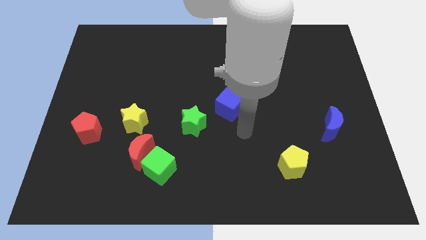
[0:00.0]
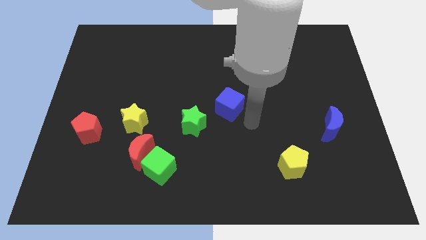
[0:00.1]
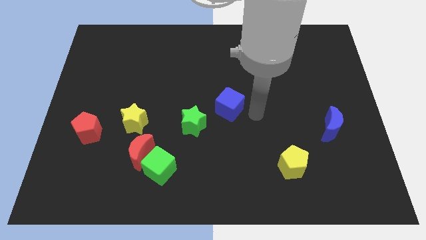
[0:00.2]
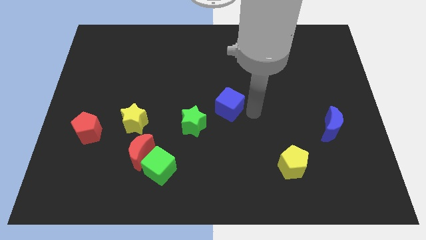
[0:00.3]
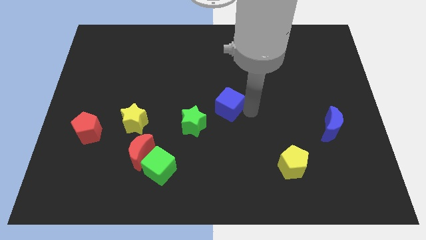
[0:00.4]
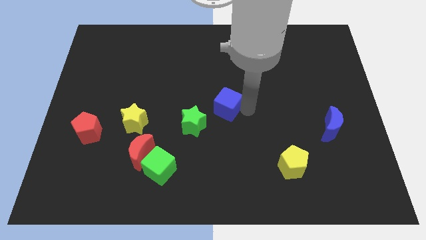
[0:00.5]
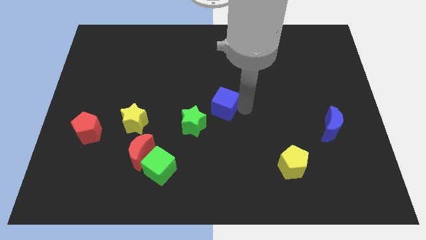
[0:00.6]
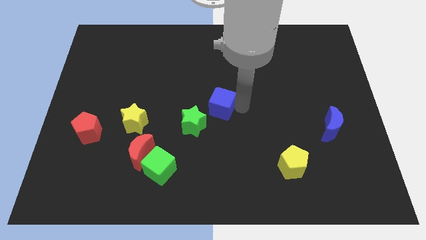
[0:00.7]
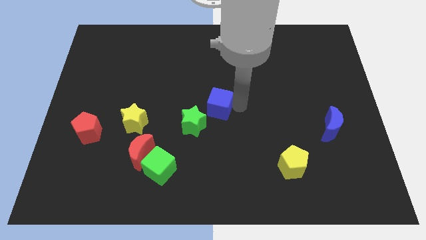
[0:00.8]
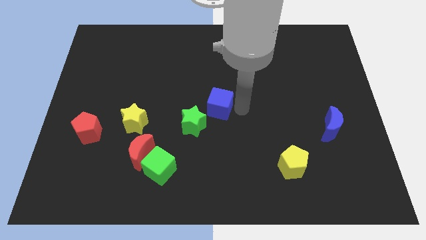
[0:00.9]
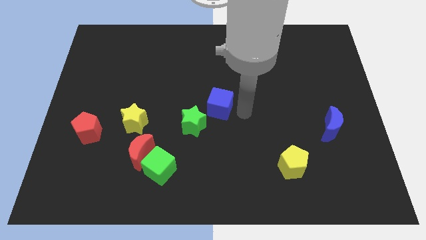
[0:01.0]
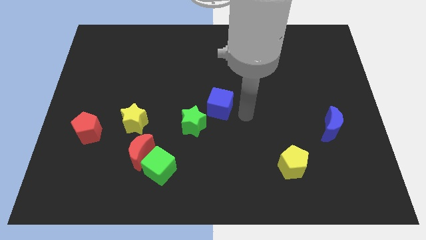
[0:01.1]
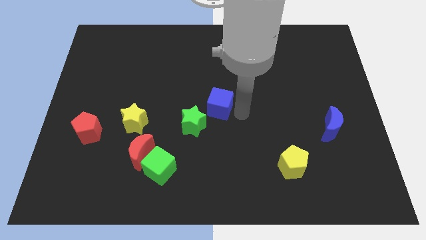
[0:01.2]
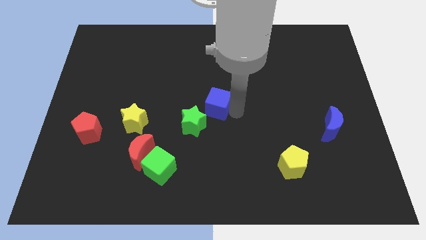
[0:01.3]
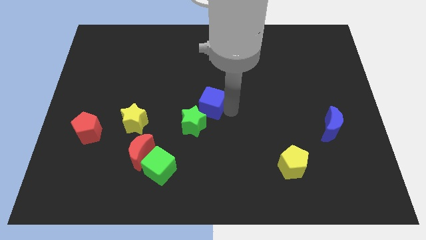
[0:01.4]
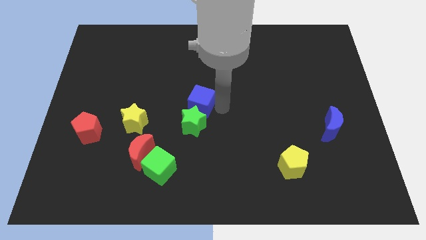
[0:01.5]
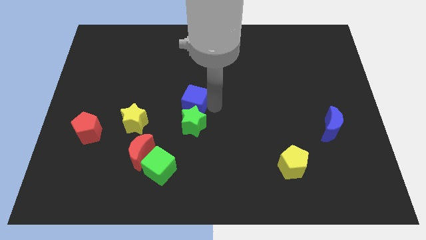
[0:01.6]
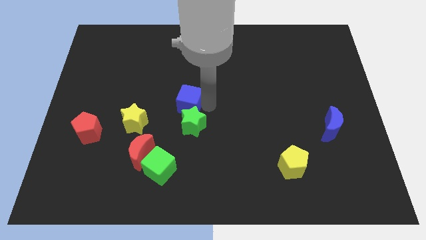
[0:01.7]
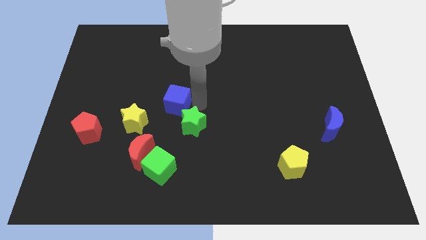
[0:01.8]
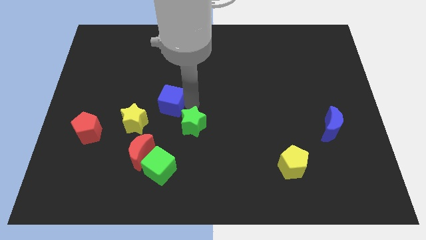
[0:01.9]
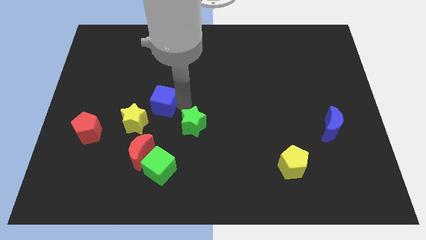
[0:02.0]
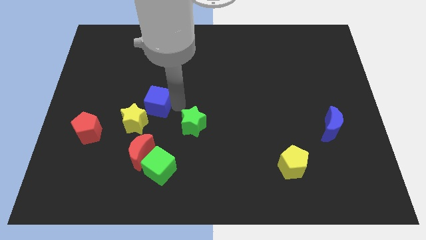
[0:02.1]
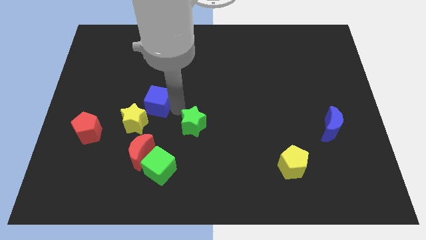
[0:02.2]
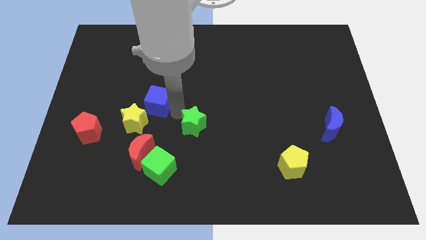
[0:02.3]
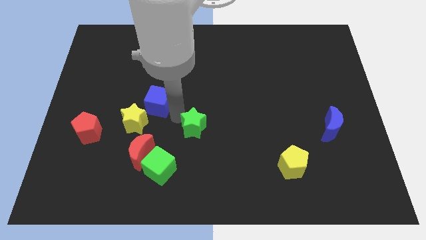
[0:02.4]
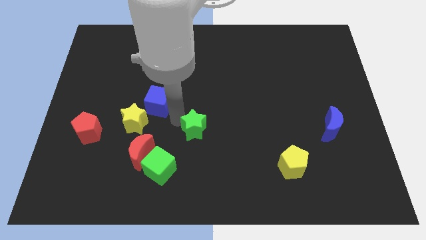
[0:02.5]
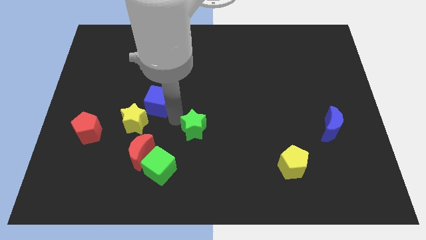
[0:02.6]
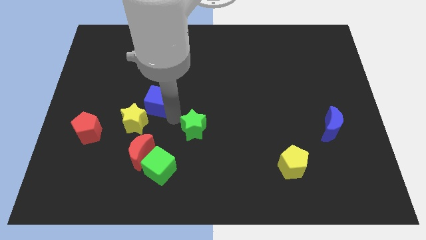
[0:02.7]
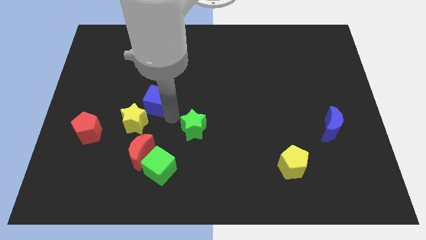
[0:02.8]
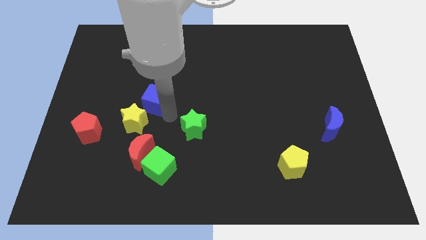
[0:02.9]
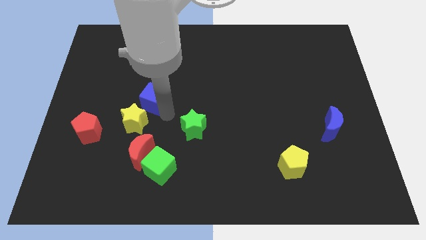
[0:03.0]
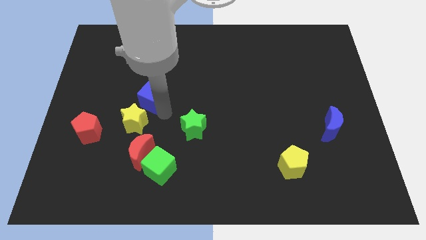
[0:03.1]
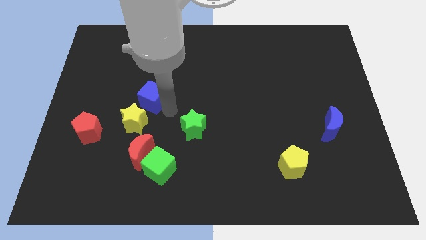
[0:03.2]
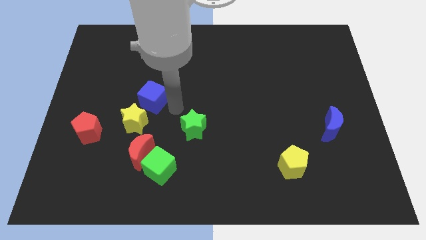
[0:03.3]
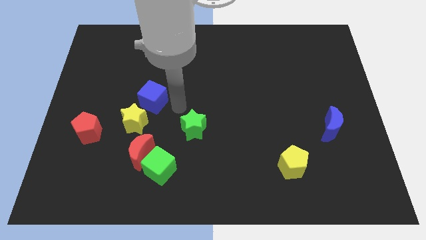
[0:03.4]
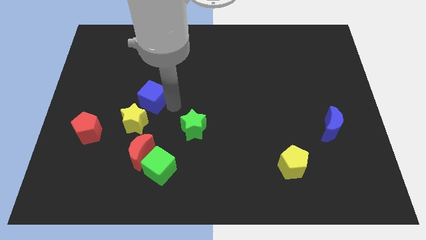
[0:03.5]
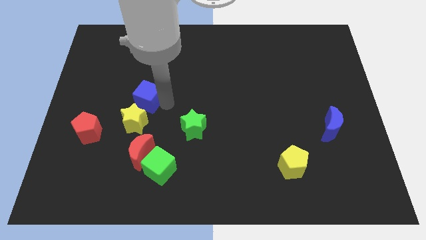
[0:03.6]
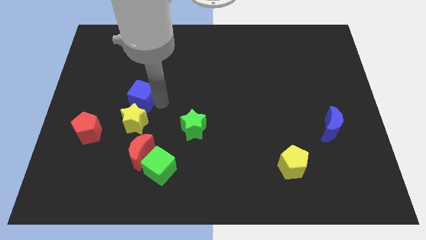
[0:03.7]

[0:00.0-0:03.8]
slide the blue cube left

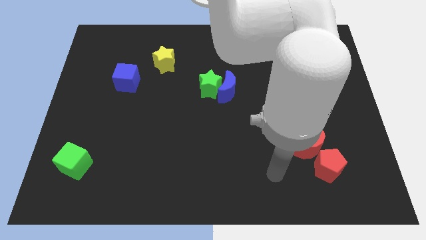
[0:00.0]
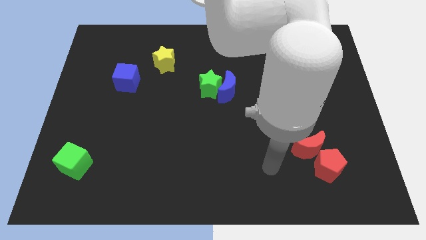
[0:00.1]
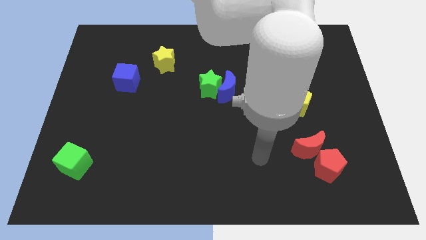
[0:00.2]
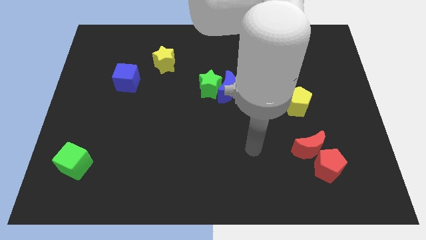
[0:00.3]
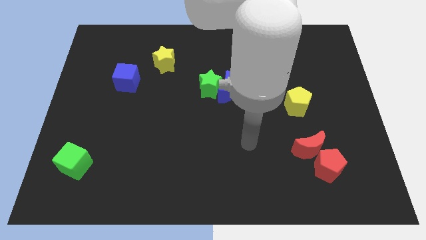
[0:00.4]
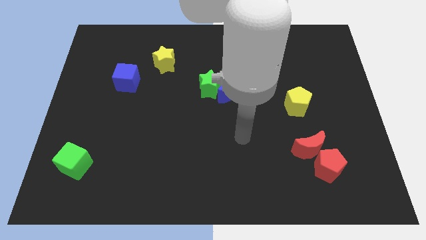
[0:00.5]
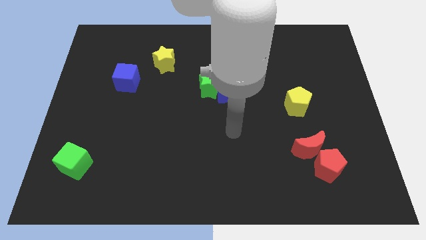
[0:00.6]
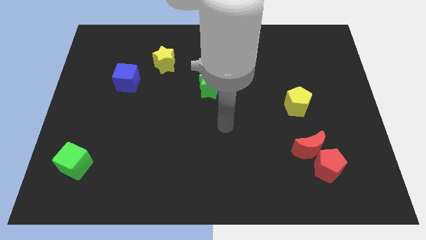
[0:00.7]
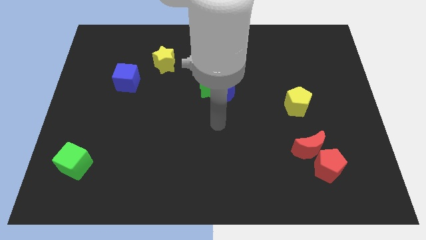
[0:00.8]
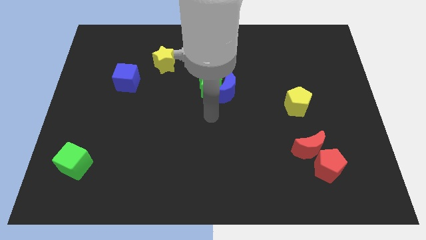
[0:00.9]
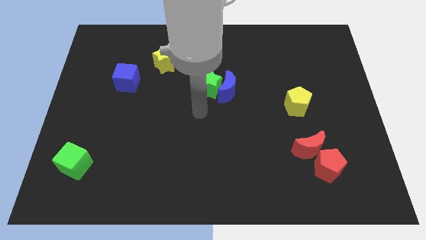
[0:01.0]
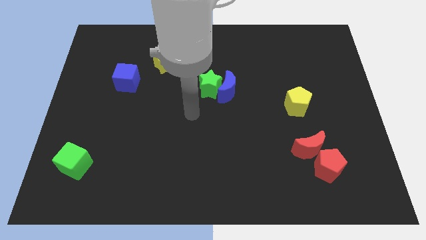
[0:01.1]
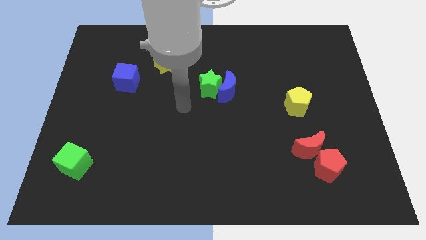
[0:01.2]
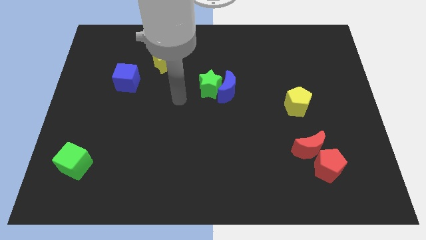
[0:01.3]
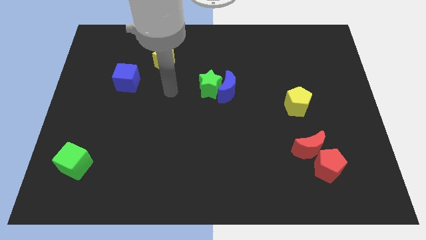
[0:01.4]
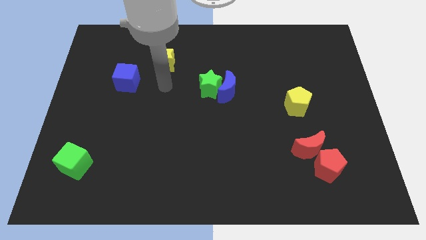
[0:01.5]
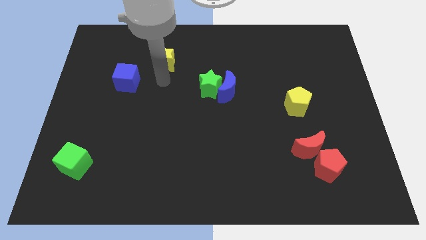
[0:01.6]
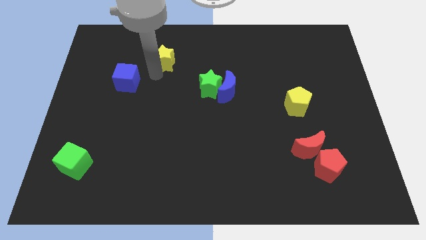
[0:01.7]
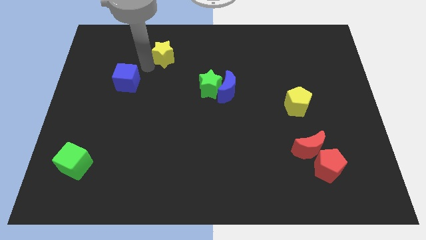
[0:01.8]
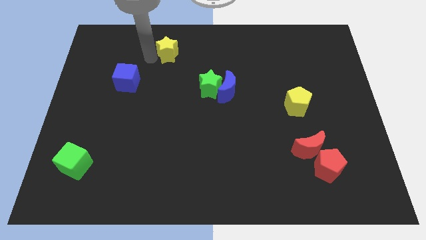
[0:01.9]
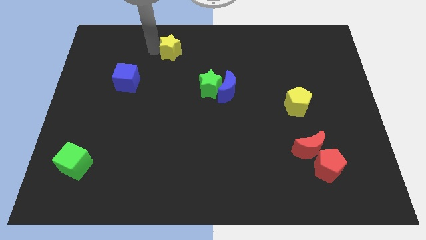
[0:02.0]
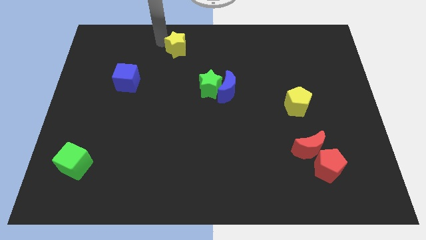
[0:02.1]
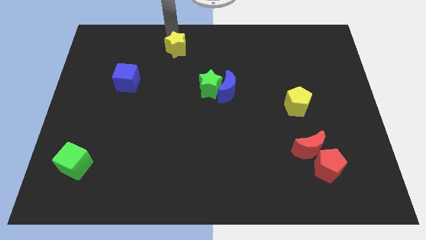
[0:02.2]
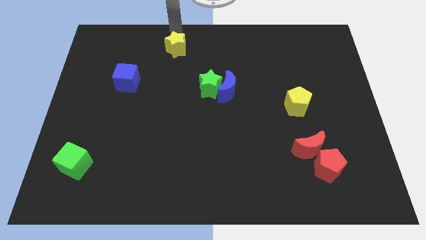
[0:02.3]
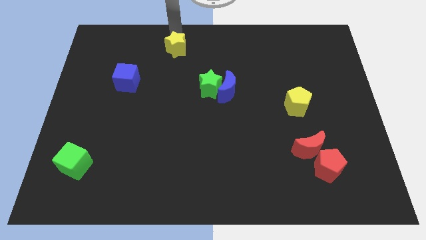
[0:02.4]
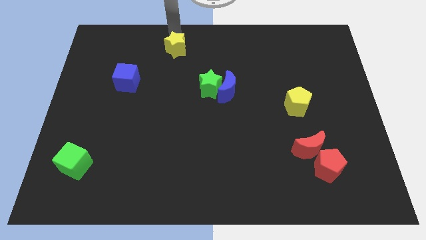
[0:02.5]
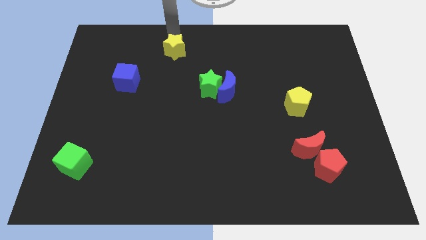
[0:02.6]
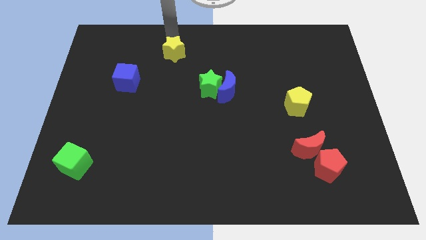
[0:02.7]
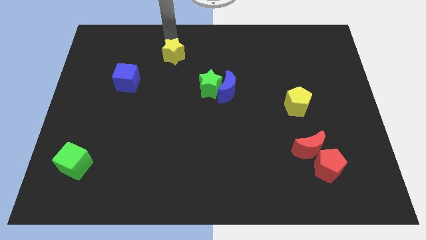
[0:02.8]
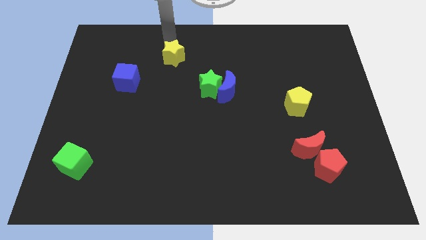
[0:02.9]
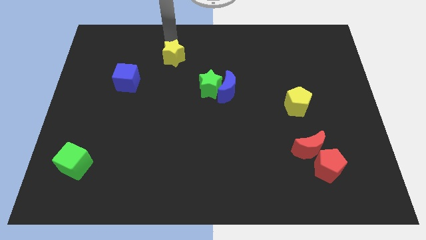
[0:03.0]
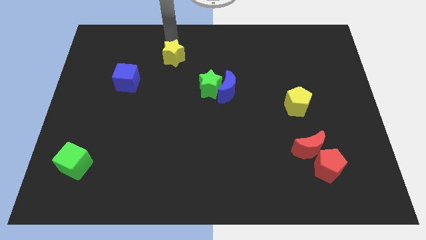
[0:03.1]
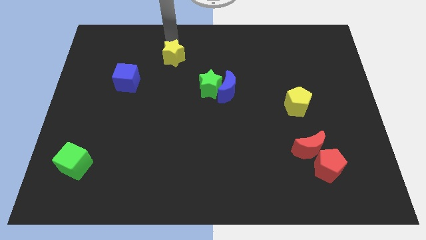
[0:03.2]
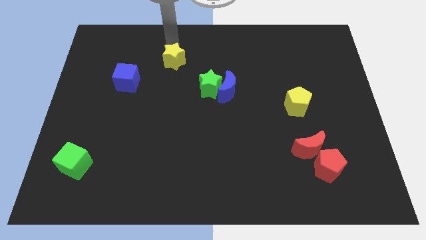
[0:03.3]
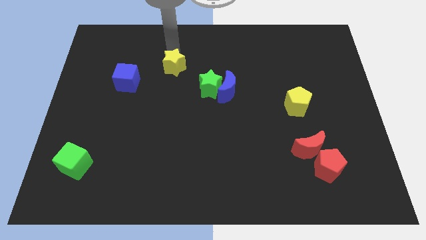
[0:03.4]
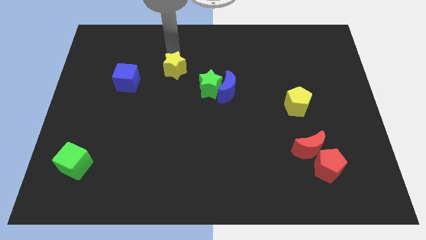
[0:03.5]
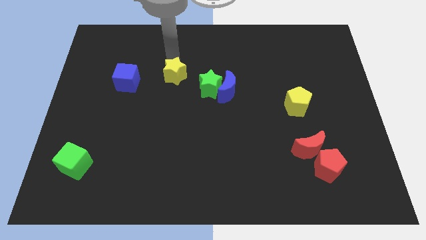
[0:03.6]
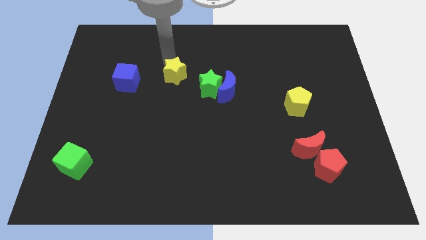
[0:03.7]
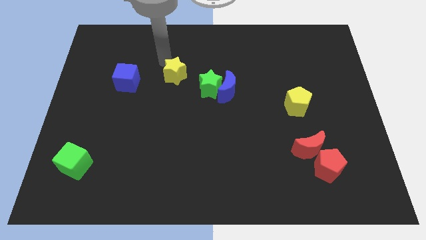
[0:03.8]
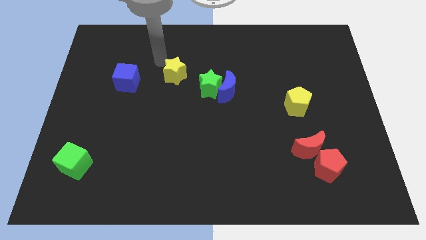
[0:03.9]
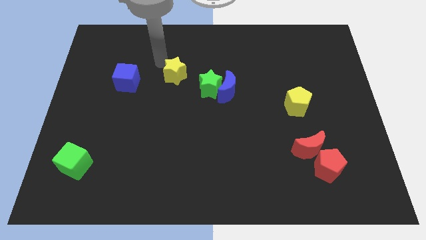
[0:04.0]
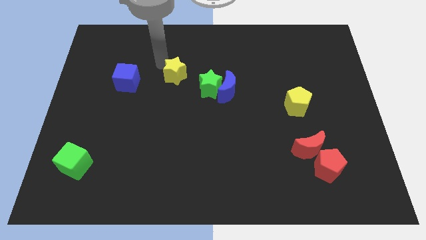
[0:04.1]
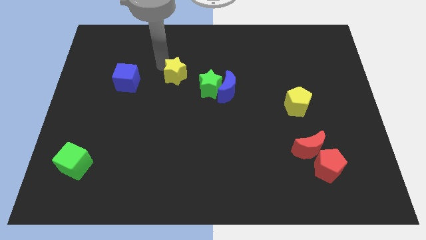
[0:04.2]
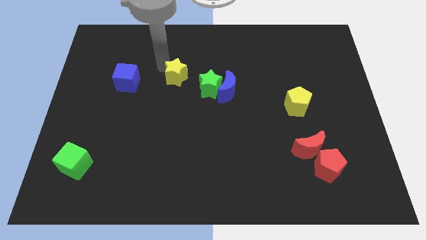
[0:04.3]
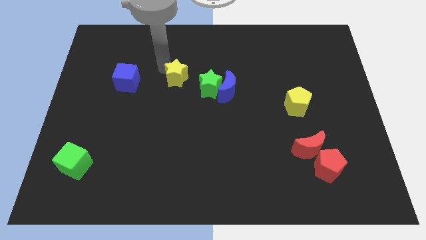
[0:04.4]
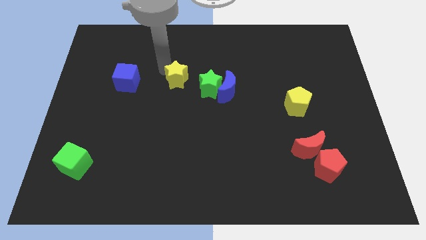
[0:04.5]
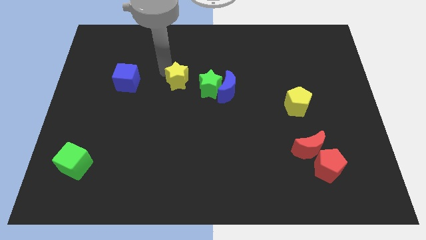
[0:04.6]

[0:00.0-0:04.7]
move the yellow star diagonally down and right a little
